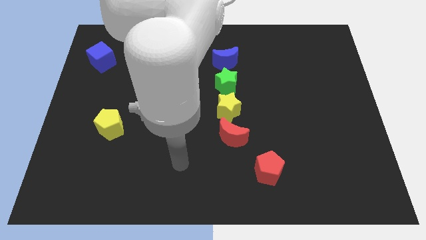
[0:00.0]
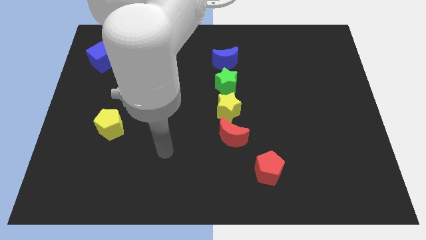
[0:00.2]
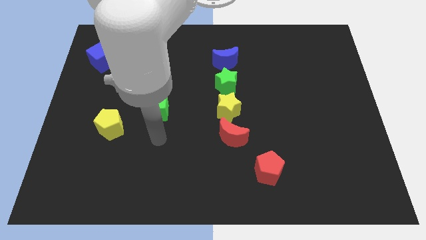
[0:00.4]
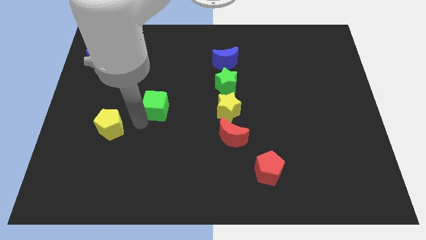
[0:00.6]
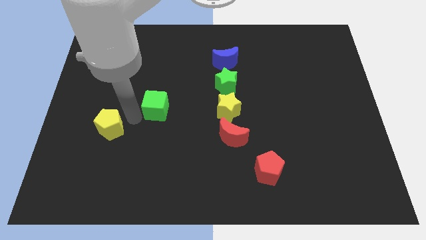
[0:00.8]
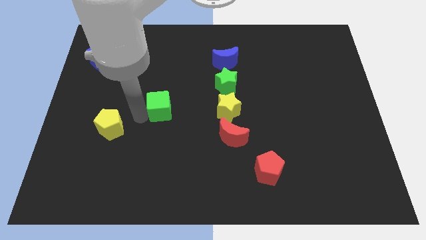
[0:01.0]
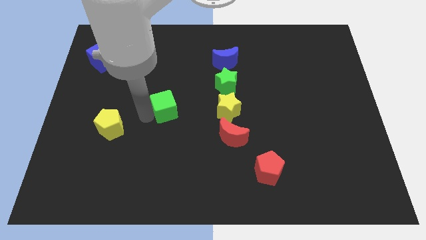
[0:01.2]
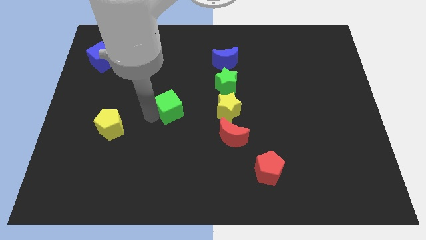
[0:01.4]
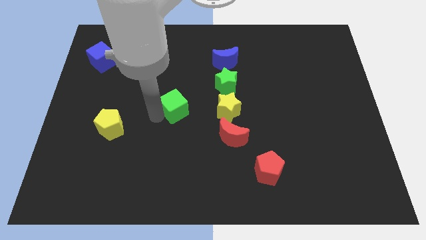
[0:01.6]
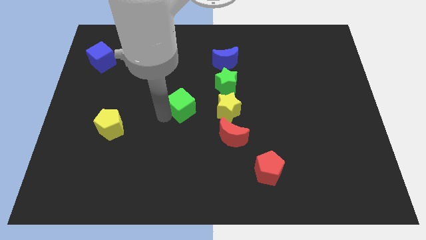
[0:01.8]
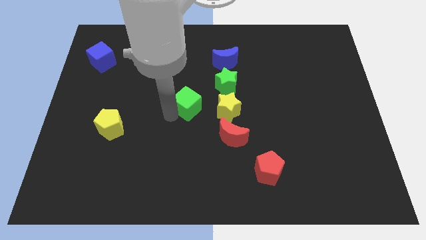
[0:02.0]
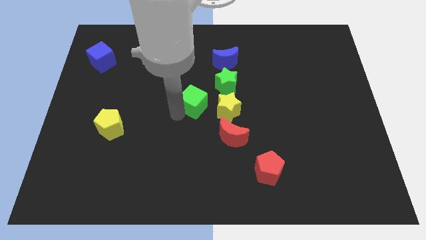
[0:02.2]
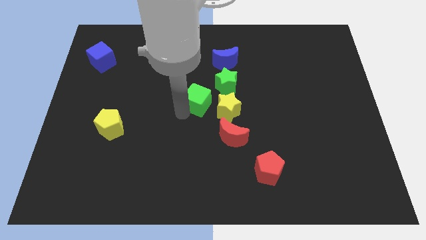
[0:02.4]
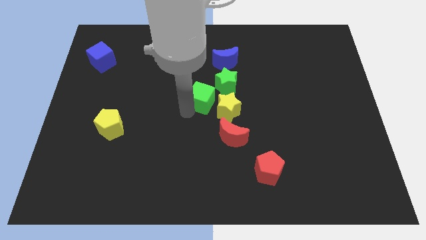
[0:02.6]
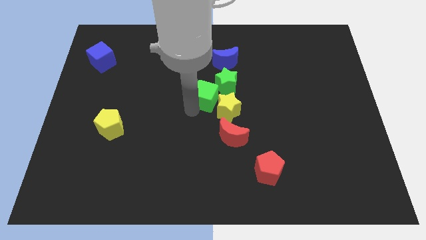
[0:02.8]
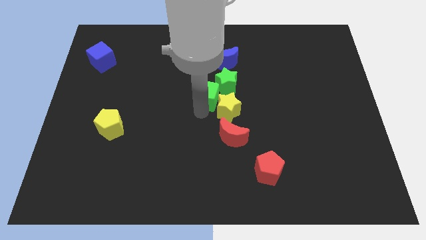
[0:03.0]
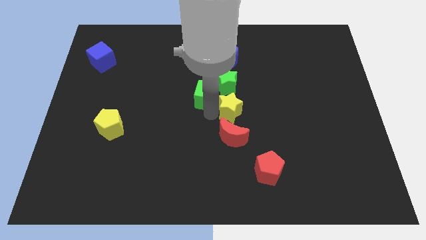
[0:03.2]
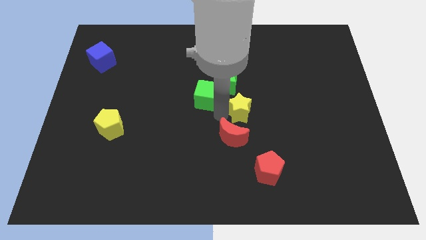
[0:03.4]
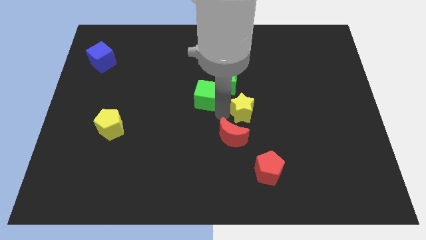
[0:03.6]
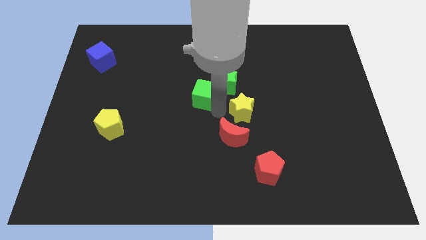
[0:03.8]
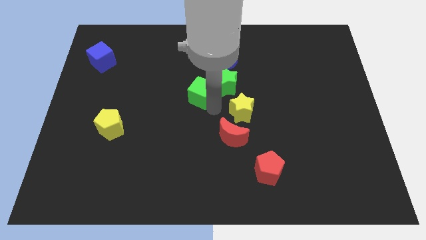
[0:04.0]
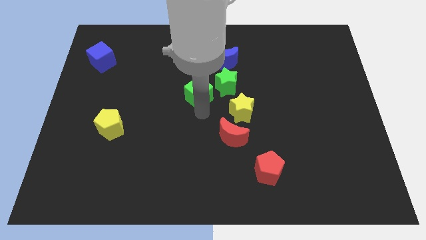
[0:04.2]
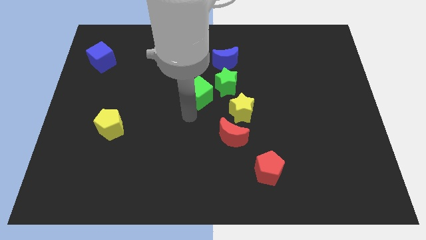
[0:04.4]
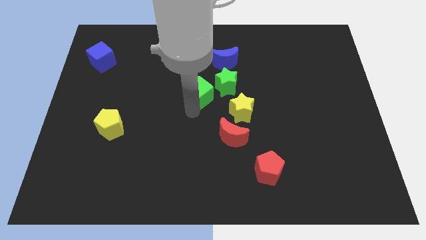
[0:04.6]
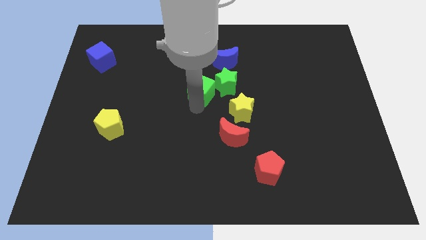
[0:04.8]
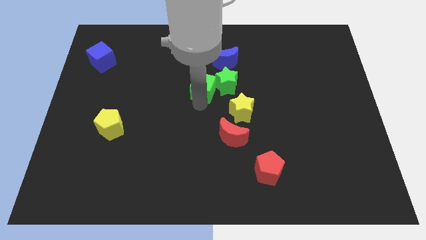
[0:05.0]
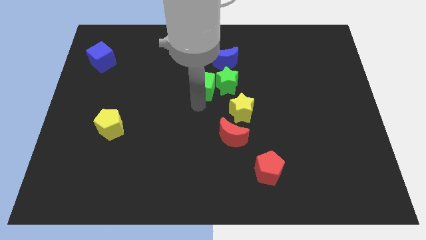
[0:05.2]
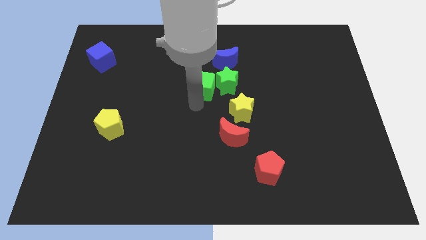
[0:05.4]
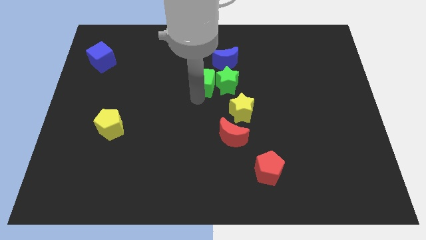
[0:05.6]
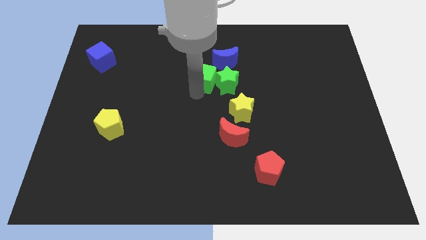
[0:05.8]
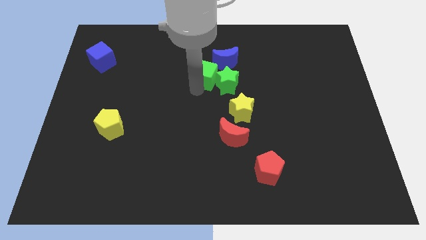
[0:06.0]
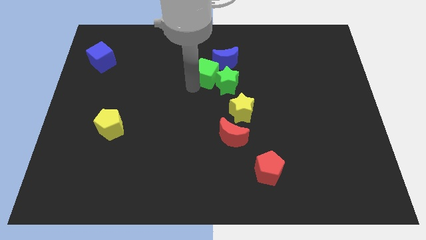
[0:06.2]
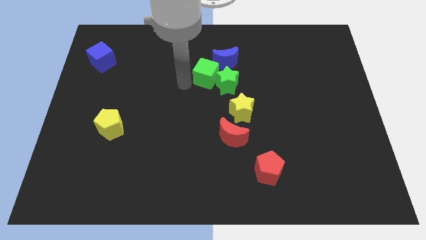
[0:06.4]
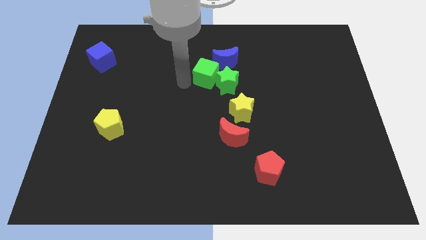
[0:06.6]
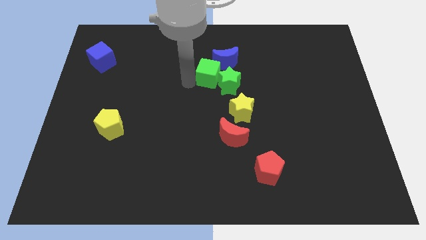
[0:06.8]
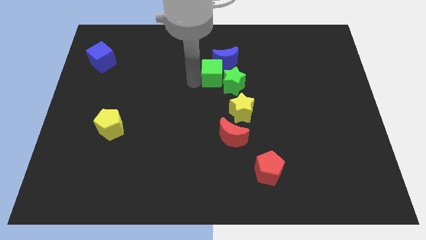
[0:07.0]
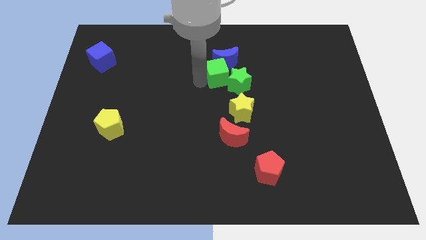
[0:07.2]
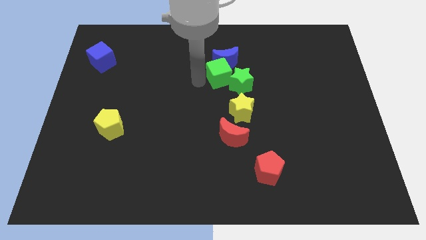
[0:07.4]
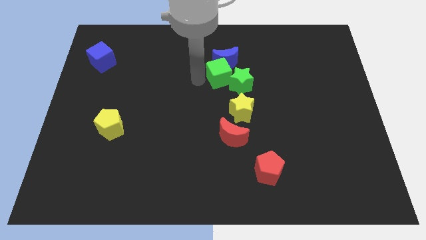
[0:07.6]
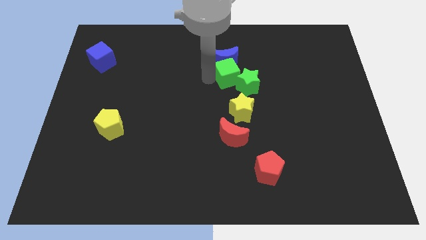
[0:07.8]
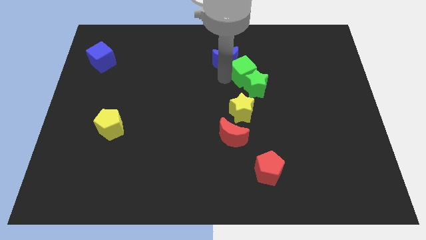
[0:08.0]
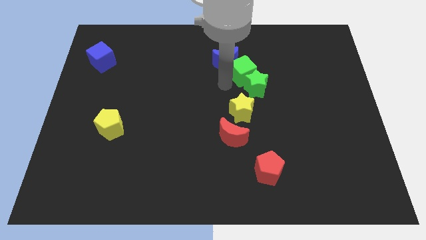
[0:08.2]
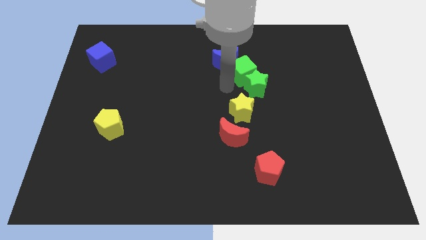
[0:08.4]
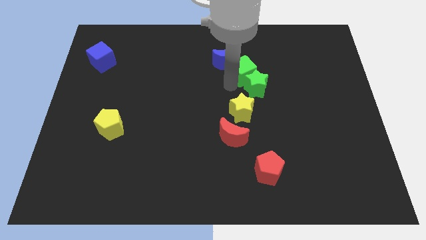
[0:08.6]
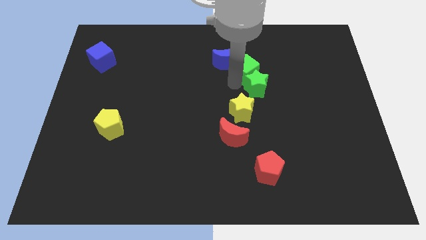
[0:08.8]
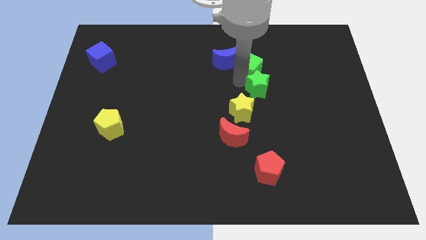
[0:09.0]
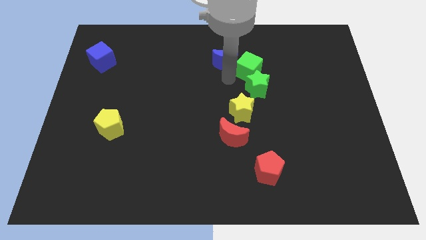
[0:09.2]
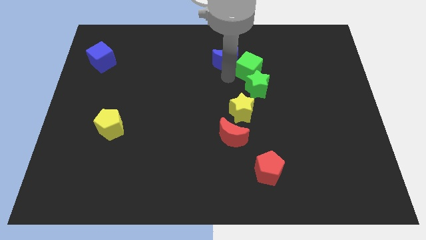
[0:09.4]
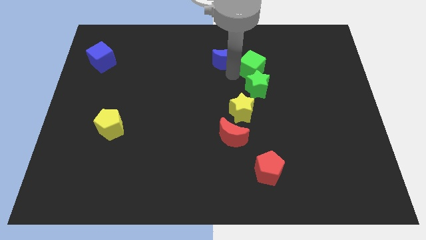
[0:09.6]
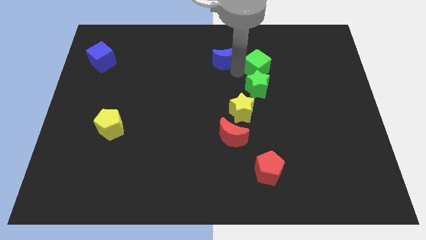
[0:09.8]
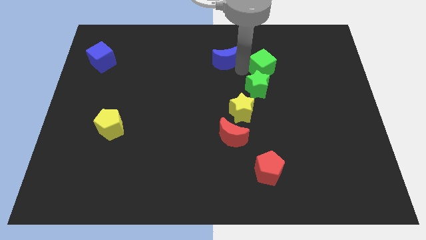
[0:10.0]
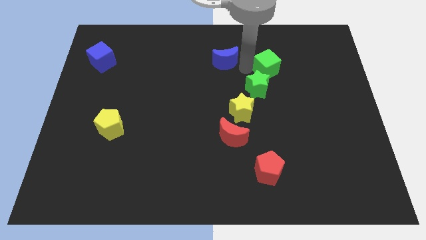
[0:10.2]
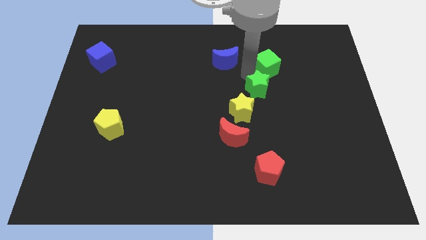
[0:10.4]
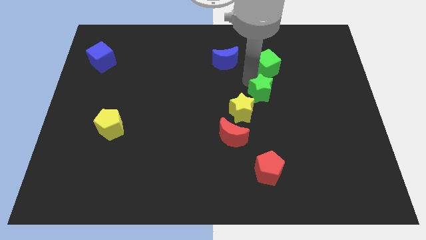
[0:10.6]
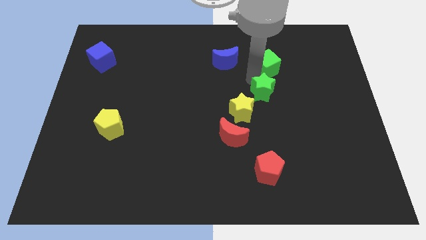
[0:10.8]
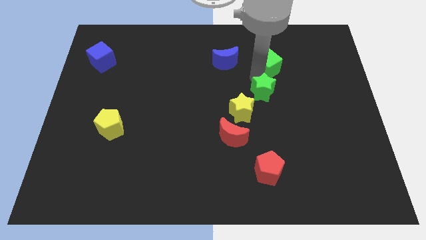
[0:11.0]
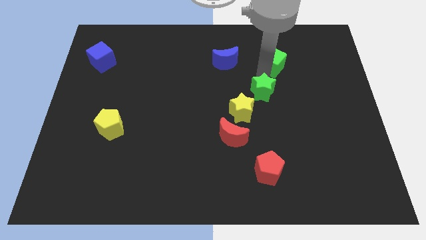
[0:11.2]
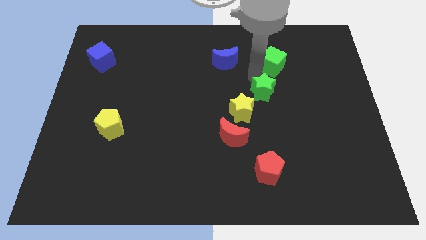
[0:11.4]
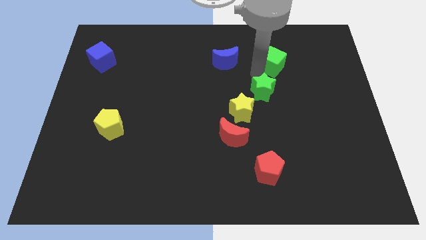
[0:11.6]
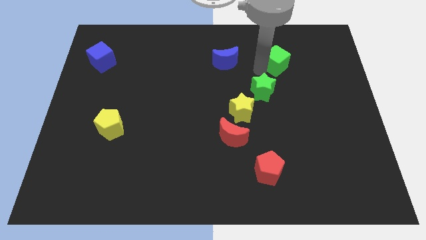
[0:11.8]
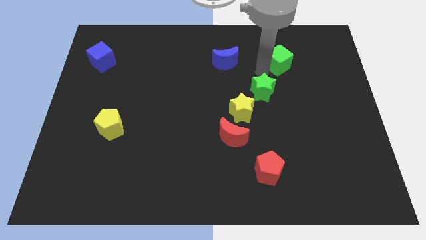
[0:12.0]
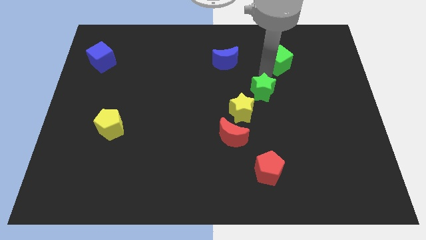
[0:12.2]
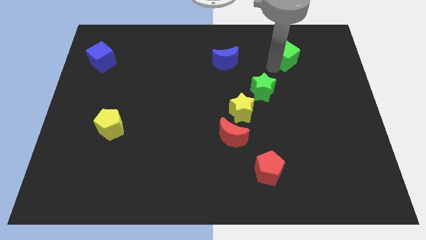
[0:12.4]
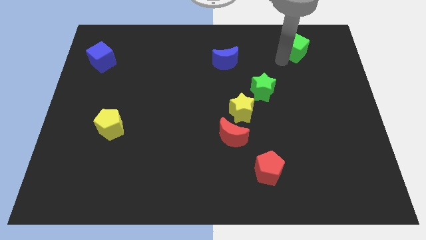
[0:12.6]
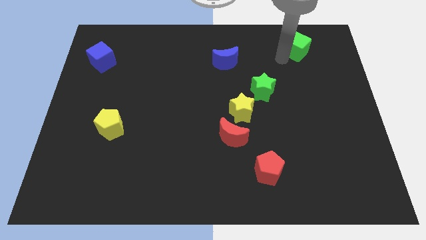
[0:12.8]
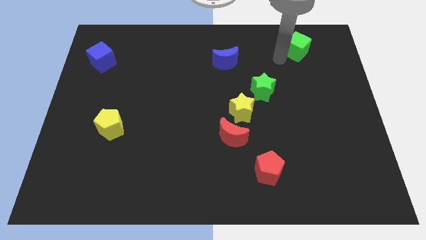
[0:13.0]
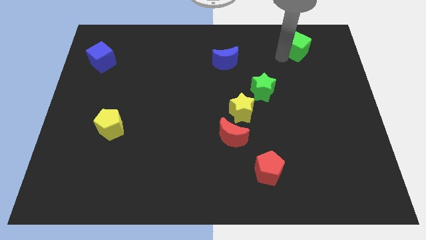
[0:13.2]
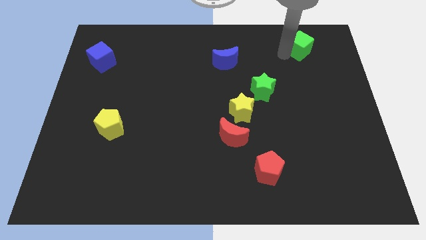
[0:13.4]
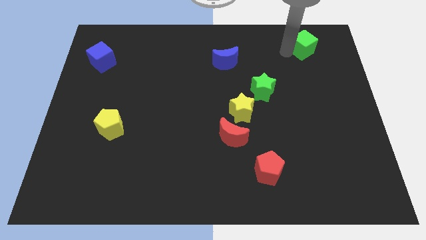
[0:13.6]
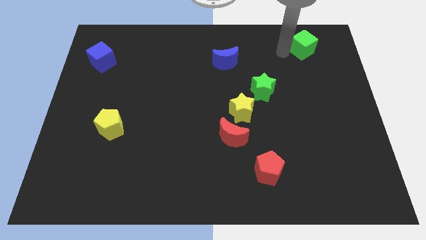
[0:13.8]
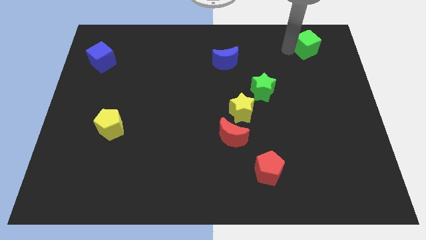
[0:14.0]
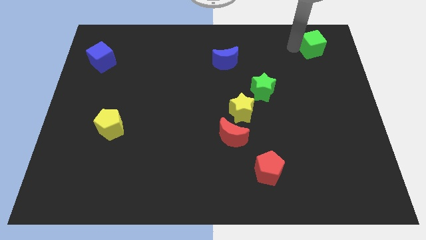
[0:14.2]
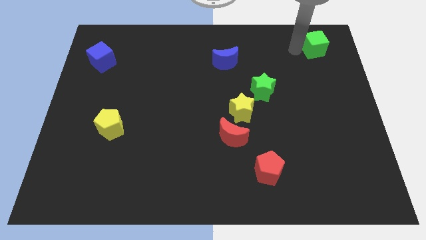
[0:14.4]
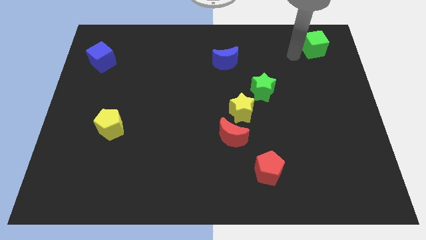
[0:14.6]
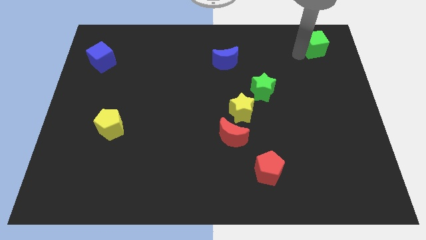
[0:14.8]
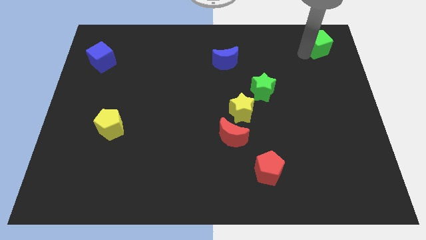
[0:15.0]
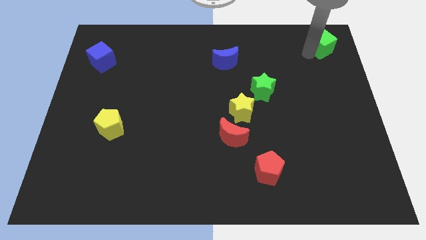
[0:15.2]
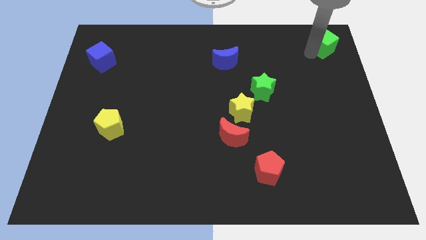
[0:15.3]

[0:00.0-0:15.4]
put the green cube to the top right
